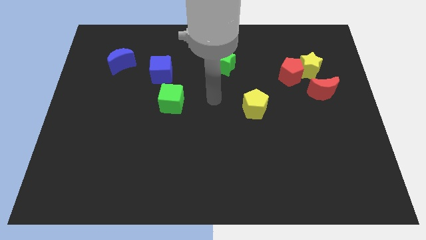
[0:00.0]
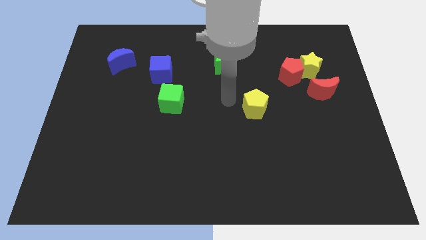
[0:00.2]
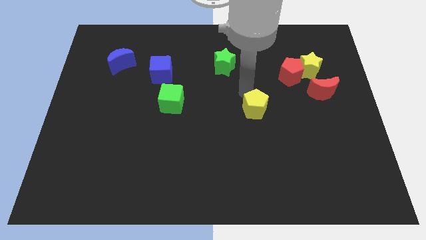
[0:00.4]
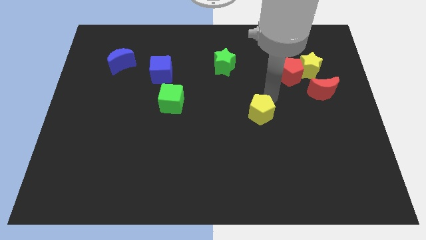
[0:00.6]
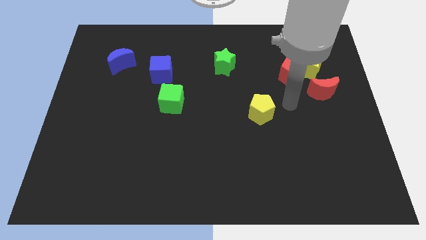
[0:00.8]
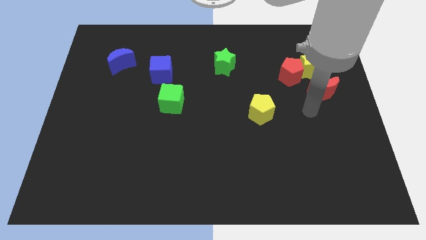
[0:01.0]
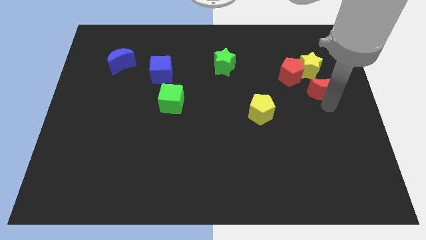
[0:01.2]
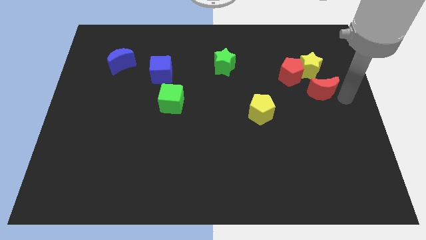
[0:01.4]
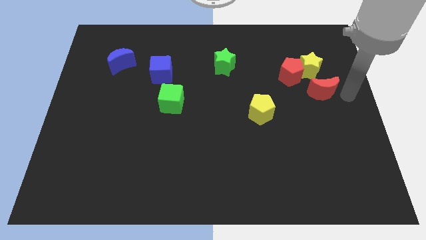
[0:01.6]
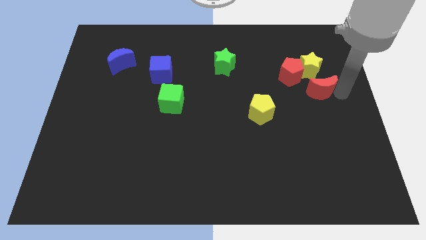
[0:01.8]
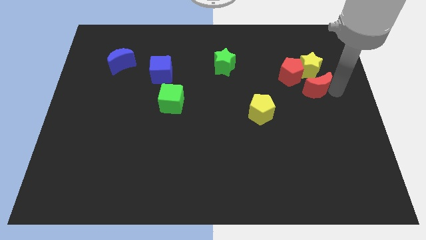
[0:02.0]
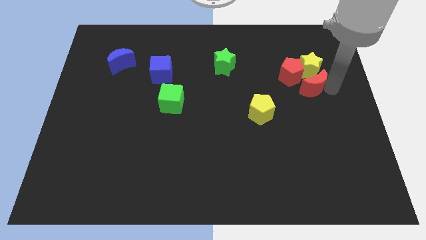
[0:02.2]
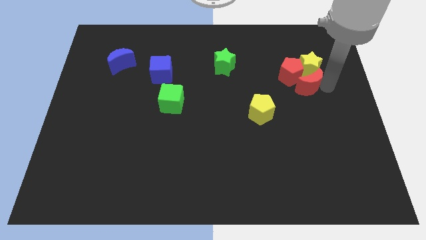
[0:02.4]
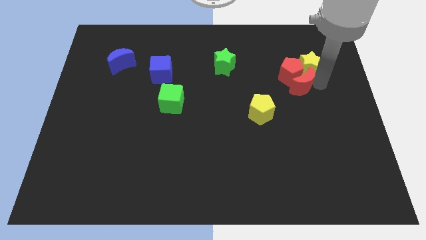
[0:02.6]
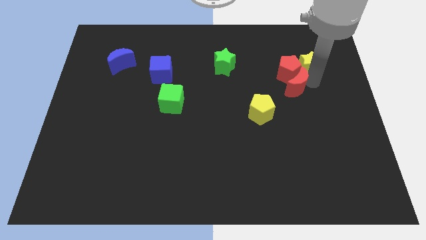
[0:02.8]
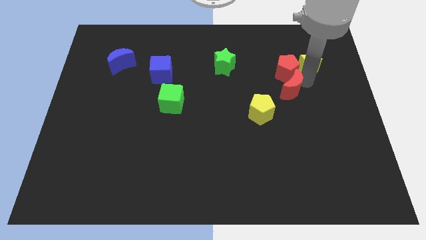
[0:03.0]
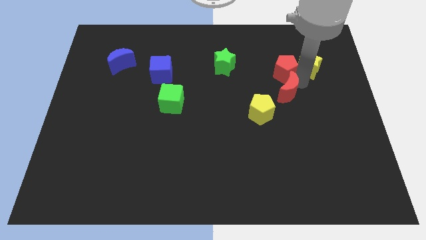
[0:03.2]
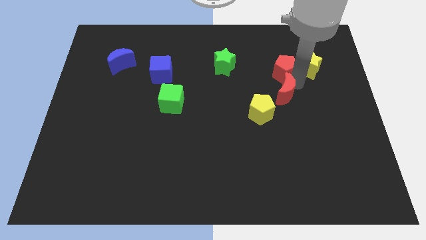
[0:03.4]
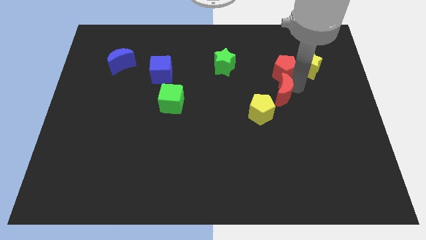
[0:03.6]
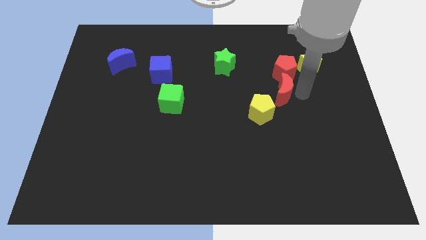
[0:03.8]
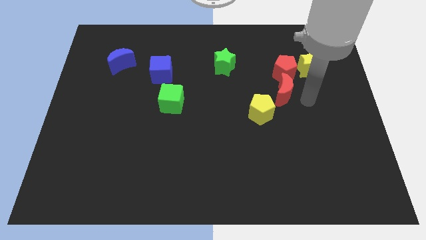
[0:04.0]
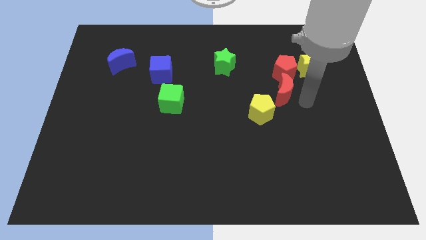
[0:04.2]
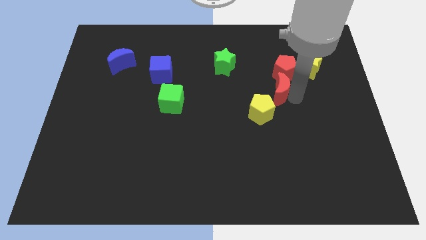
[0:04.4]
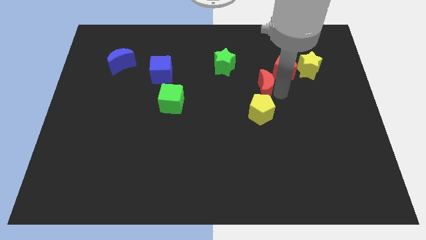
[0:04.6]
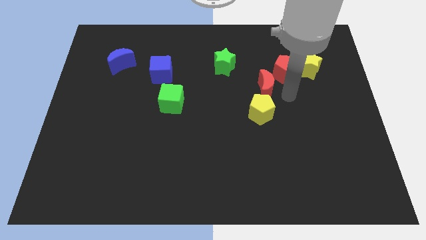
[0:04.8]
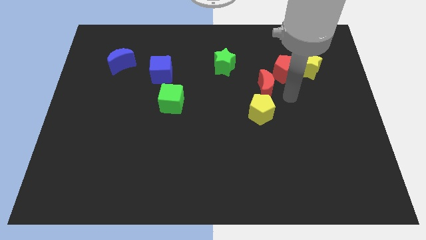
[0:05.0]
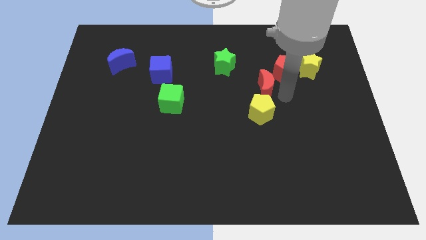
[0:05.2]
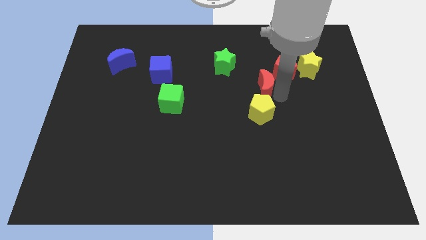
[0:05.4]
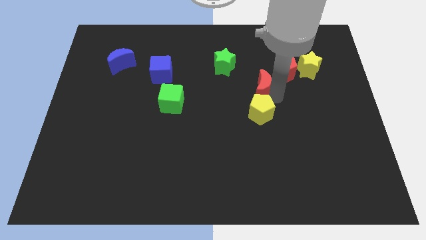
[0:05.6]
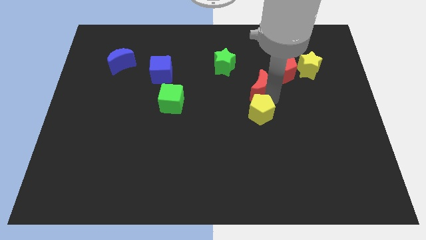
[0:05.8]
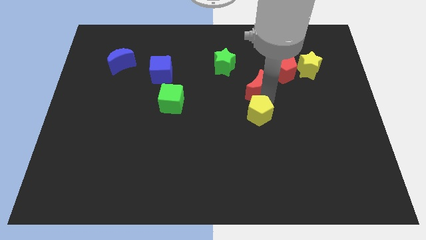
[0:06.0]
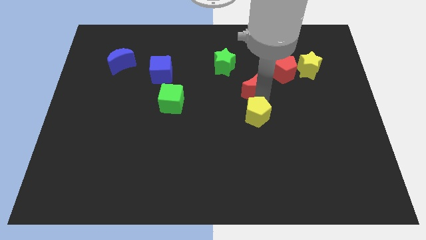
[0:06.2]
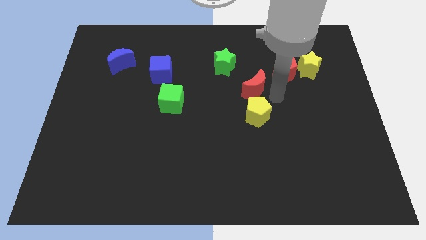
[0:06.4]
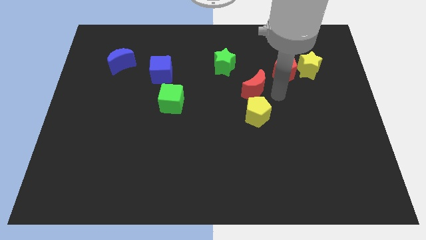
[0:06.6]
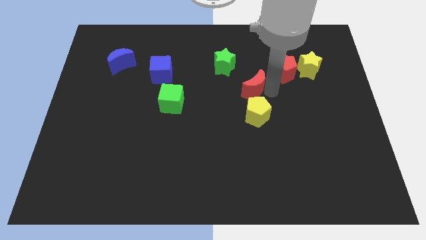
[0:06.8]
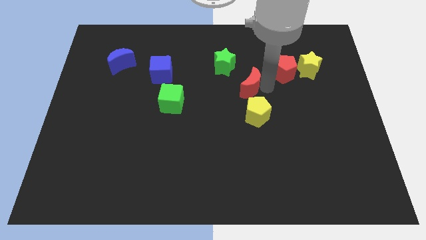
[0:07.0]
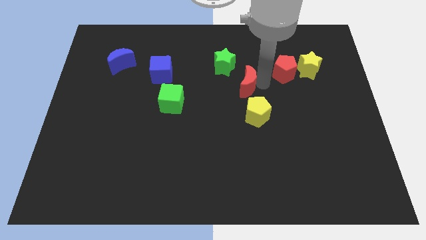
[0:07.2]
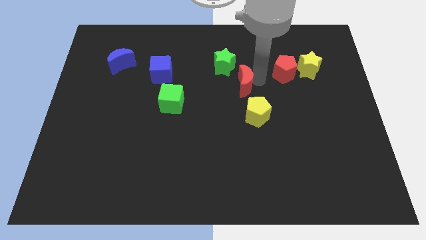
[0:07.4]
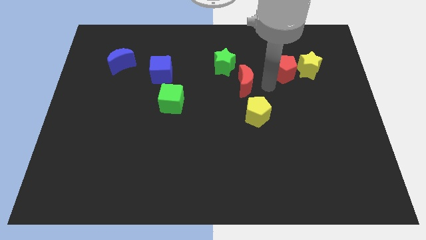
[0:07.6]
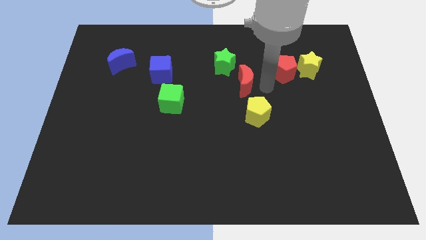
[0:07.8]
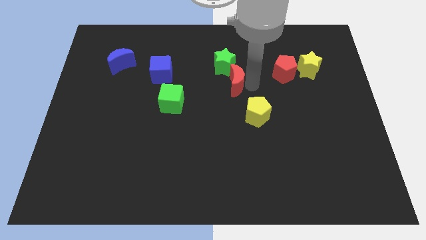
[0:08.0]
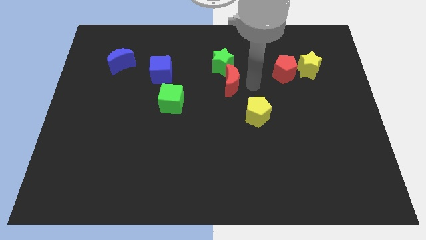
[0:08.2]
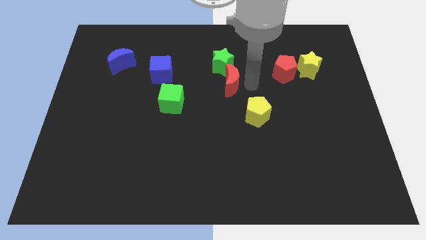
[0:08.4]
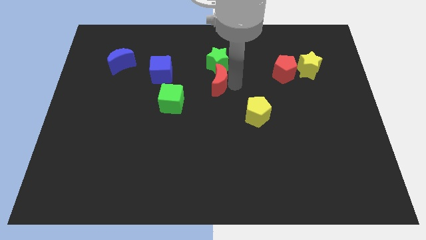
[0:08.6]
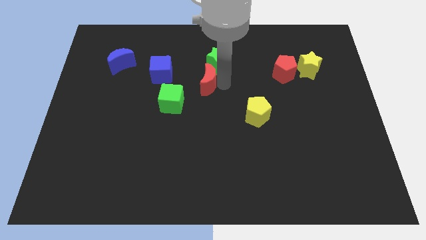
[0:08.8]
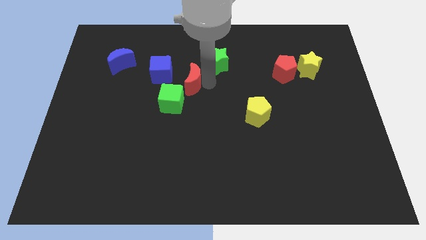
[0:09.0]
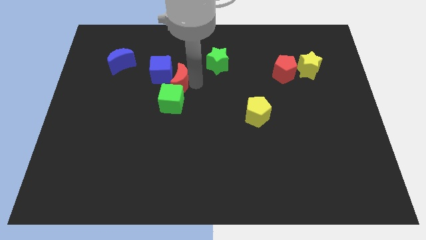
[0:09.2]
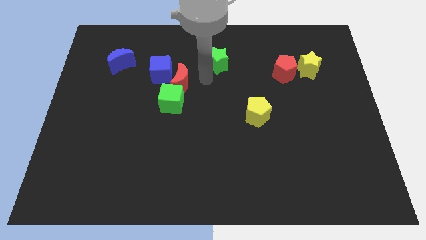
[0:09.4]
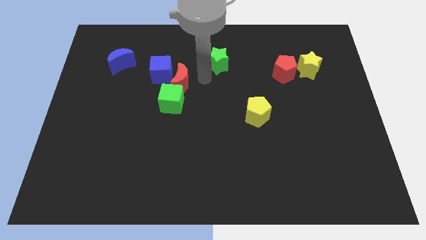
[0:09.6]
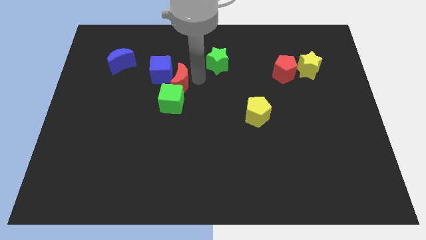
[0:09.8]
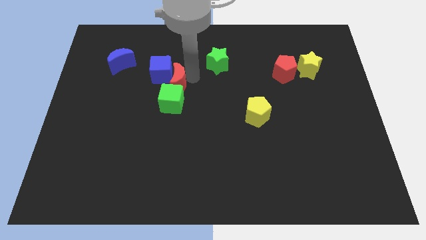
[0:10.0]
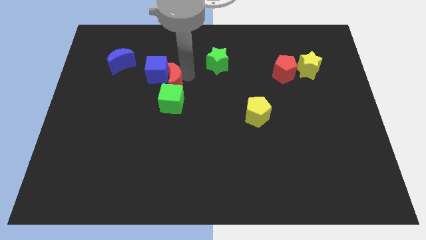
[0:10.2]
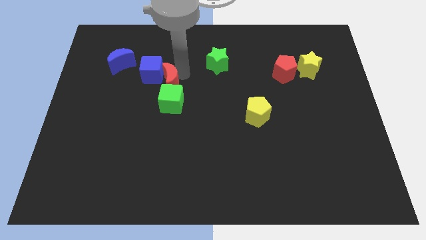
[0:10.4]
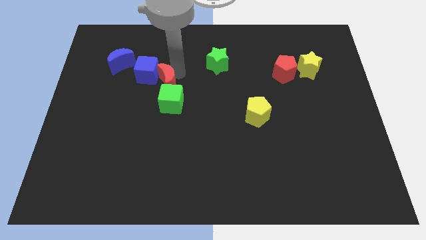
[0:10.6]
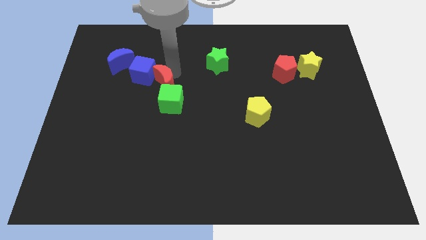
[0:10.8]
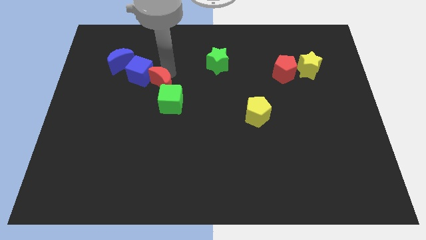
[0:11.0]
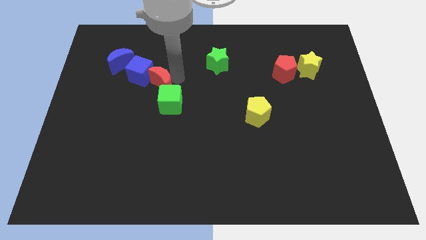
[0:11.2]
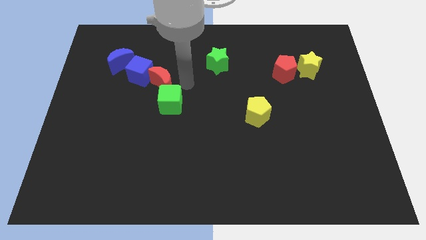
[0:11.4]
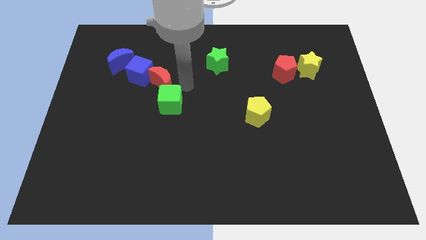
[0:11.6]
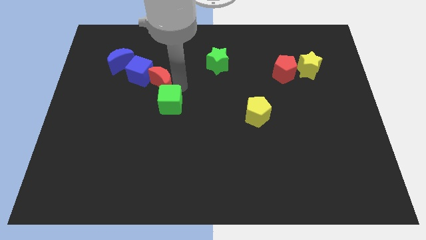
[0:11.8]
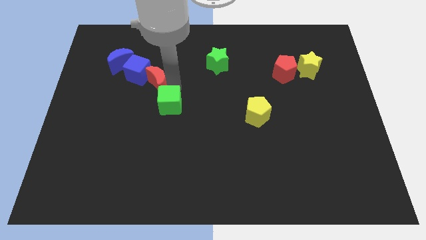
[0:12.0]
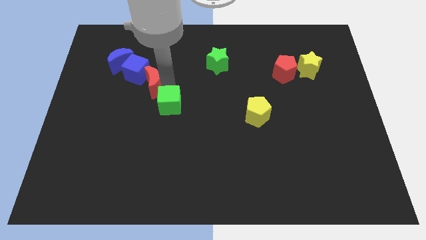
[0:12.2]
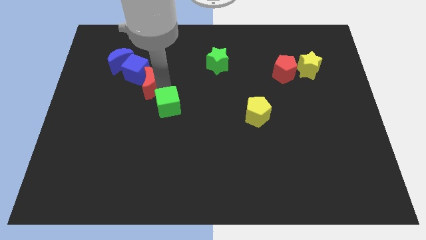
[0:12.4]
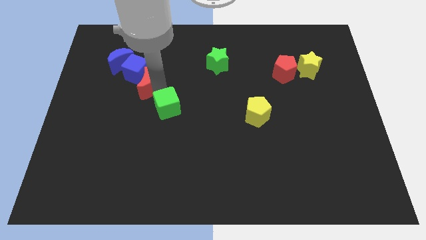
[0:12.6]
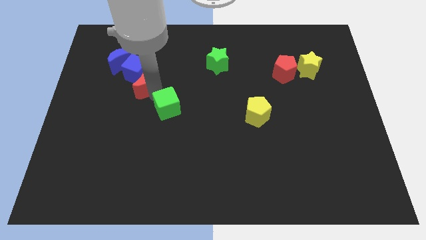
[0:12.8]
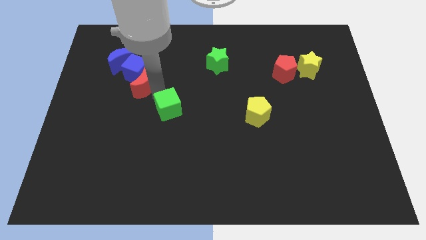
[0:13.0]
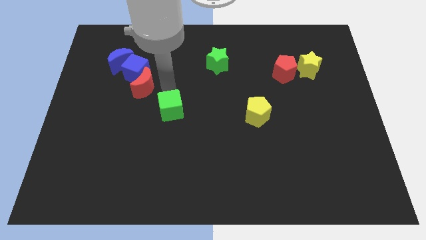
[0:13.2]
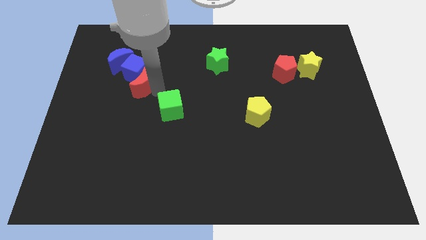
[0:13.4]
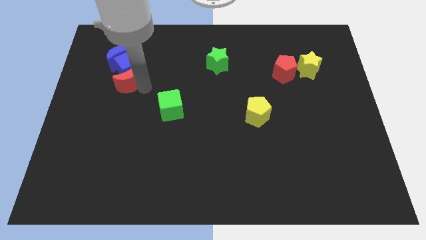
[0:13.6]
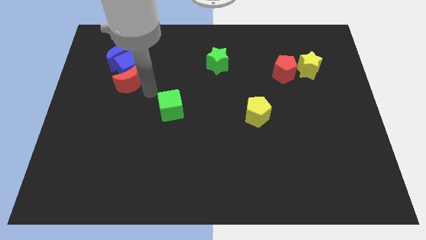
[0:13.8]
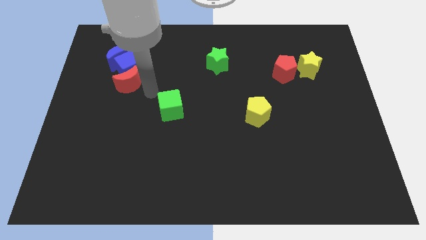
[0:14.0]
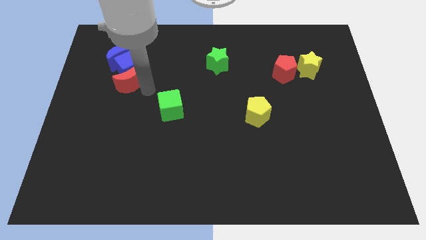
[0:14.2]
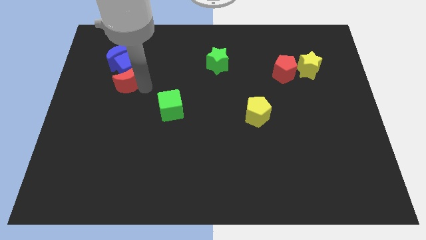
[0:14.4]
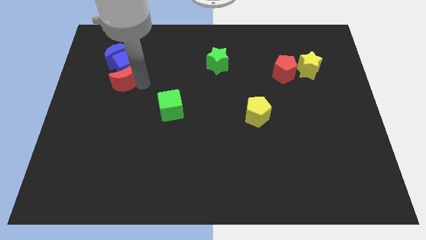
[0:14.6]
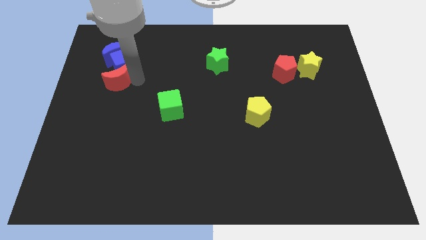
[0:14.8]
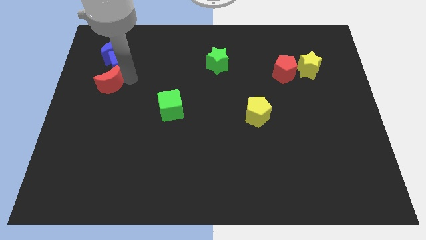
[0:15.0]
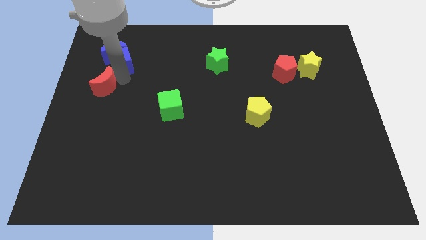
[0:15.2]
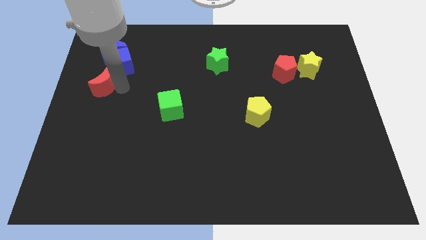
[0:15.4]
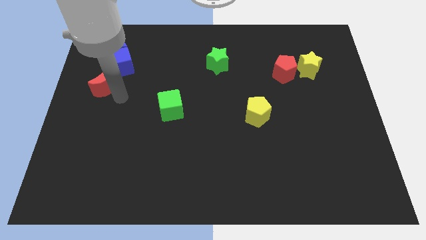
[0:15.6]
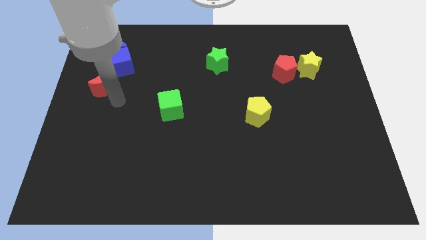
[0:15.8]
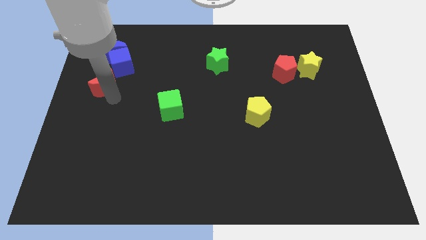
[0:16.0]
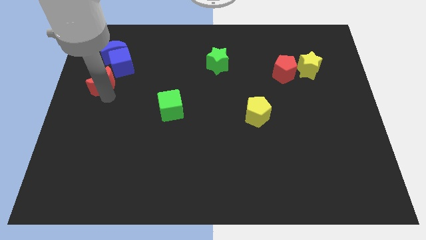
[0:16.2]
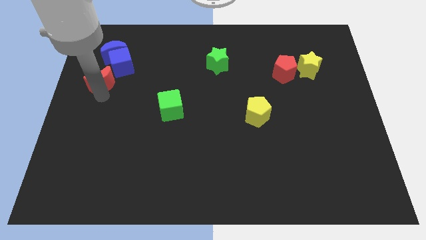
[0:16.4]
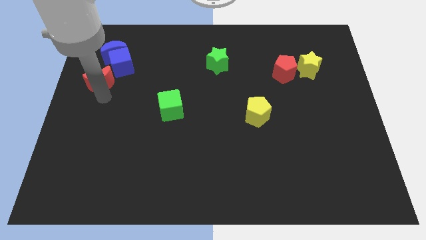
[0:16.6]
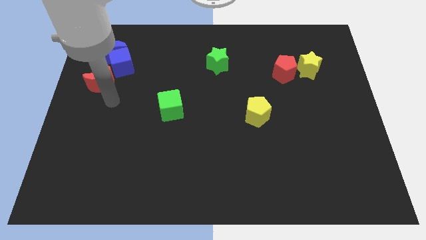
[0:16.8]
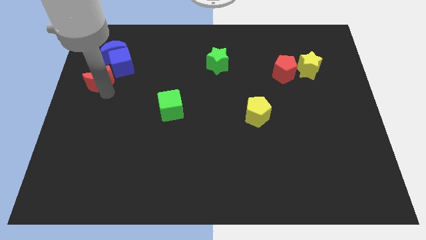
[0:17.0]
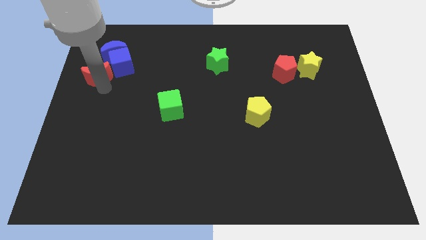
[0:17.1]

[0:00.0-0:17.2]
push the red moon diagonally down and to the left of the blue moon
